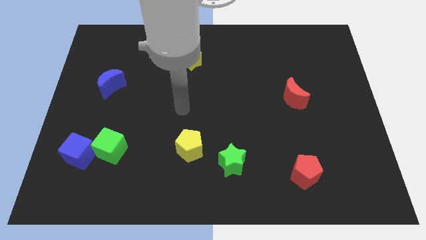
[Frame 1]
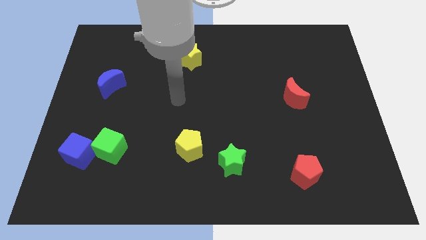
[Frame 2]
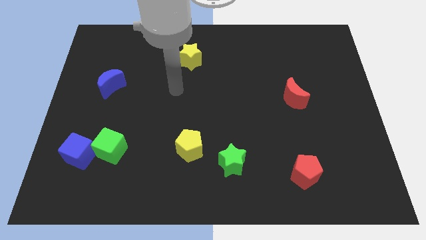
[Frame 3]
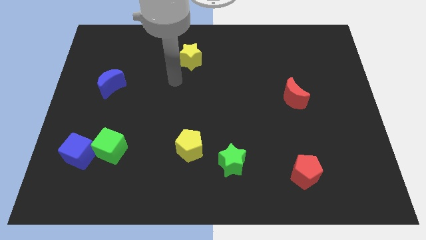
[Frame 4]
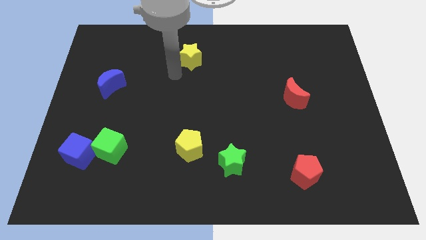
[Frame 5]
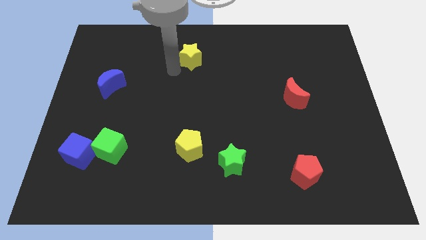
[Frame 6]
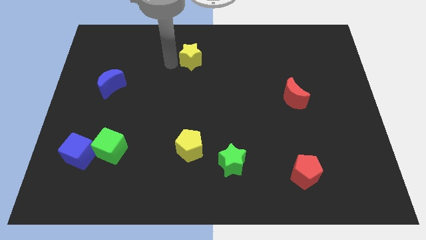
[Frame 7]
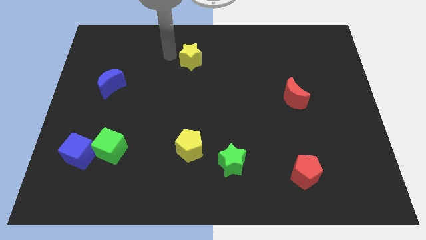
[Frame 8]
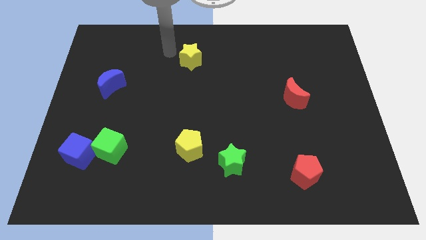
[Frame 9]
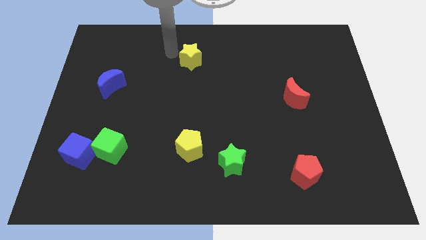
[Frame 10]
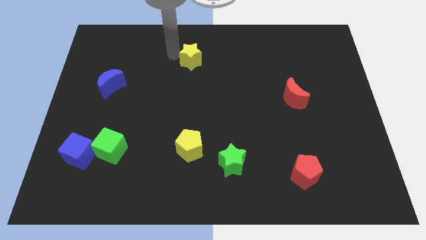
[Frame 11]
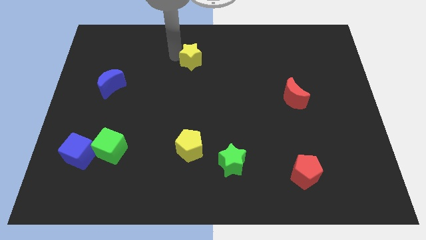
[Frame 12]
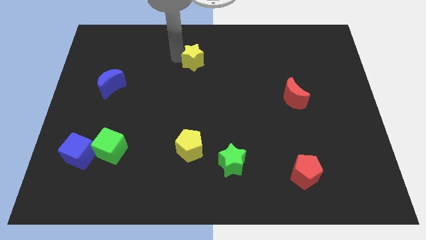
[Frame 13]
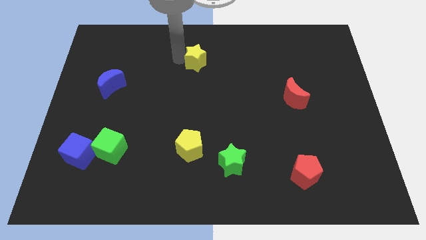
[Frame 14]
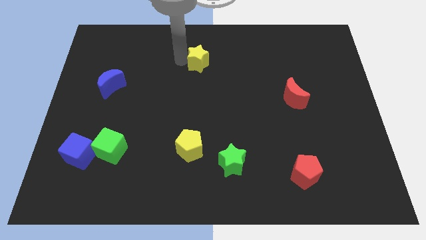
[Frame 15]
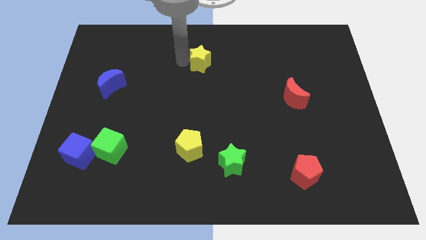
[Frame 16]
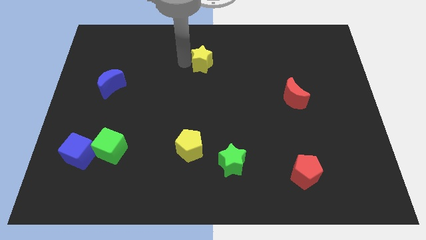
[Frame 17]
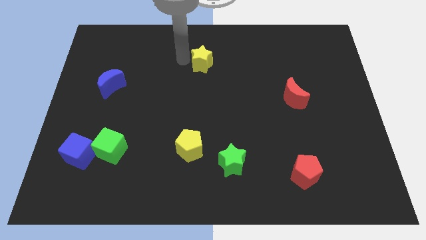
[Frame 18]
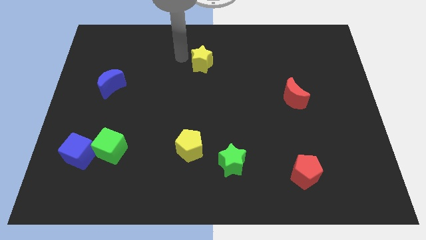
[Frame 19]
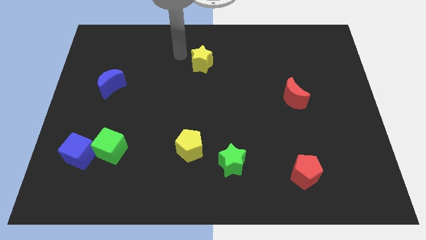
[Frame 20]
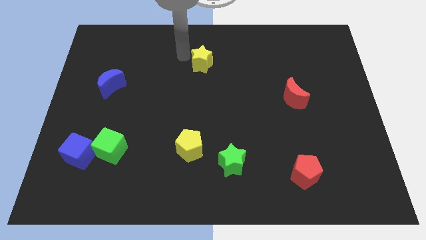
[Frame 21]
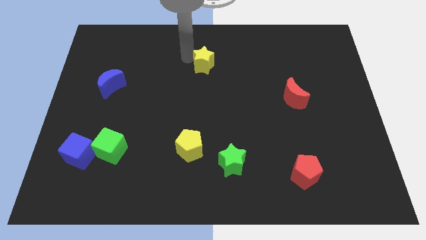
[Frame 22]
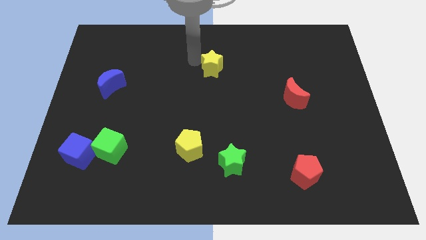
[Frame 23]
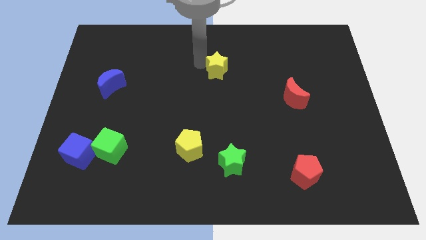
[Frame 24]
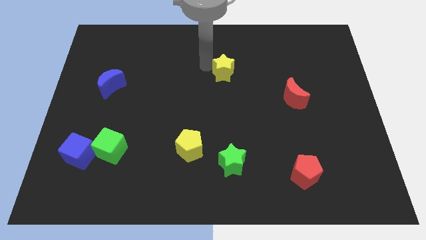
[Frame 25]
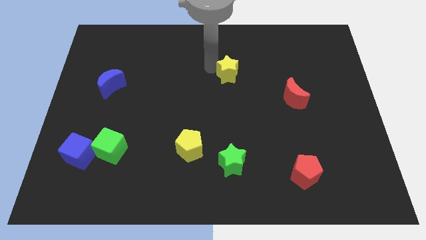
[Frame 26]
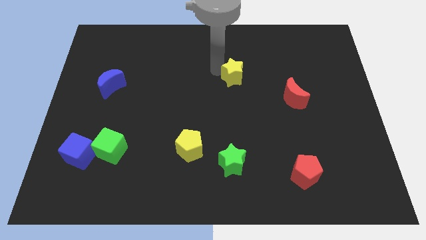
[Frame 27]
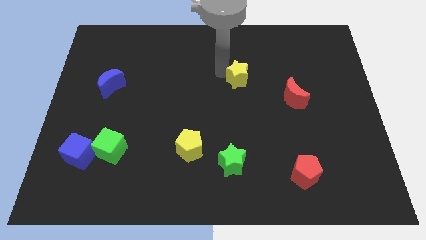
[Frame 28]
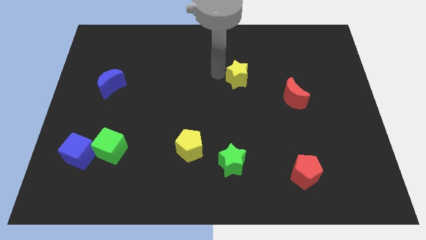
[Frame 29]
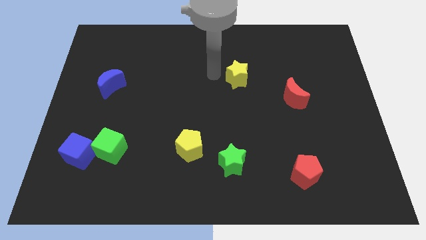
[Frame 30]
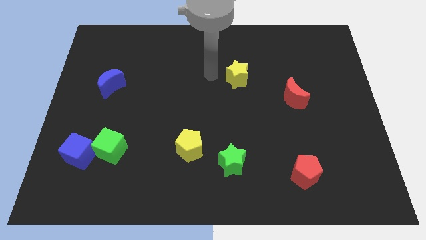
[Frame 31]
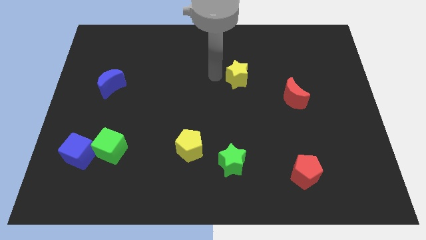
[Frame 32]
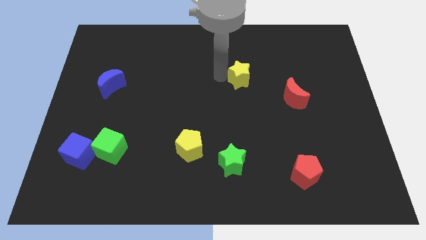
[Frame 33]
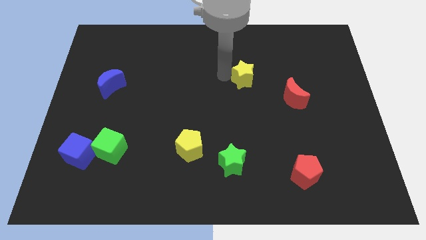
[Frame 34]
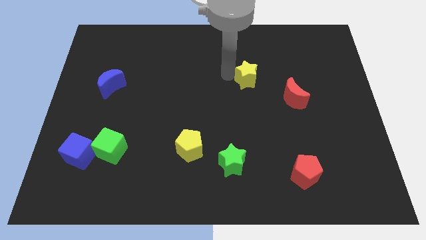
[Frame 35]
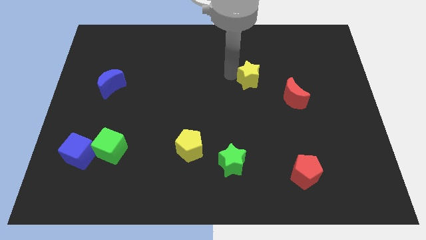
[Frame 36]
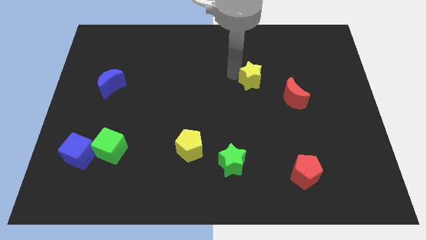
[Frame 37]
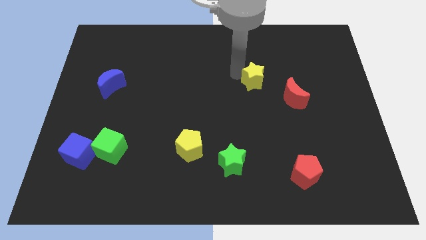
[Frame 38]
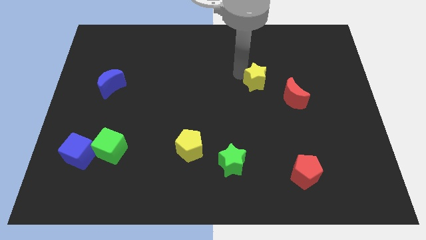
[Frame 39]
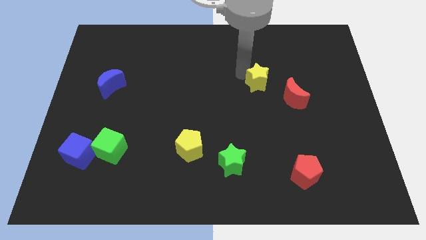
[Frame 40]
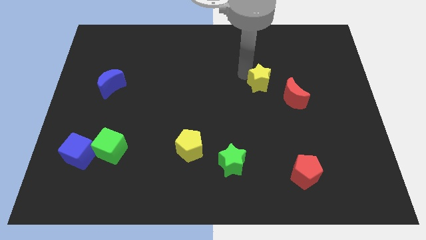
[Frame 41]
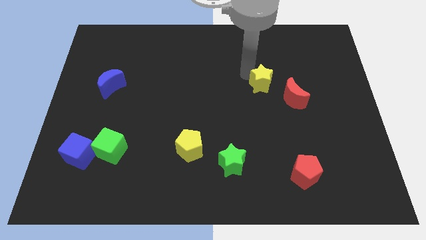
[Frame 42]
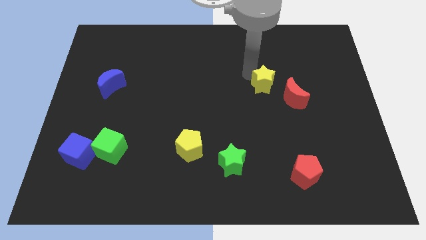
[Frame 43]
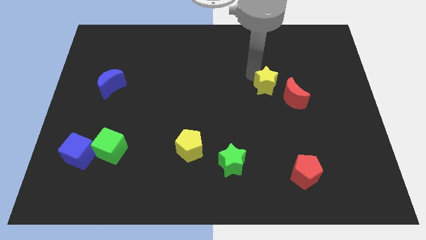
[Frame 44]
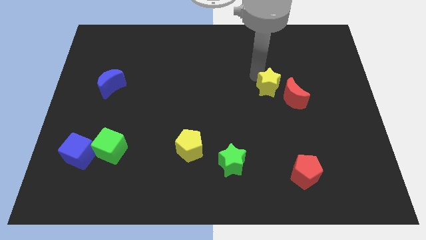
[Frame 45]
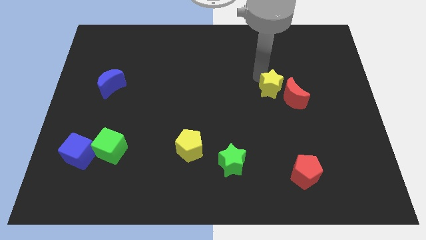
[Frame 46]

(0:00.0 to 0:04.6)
move the yellow star close to the red moon

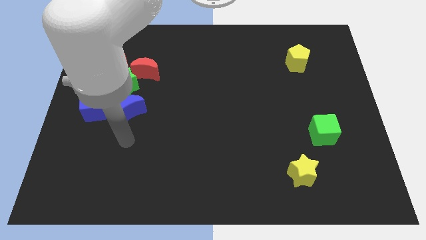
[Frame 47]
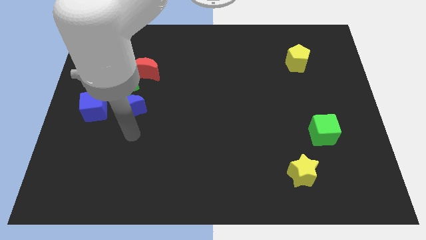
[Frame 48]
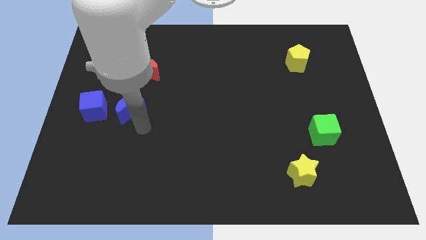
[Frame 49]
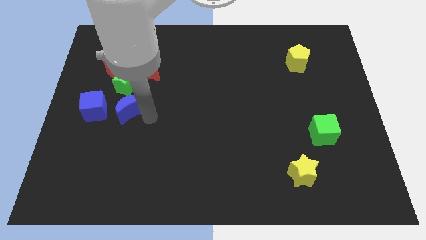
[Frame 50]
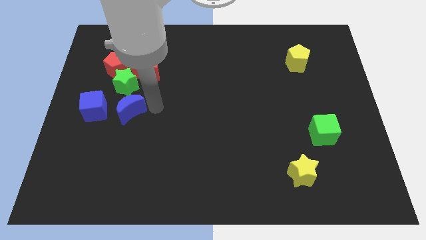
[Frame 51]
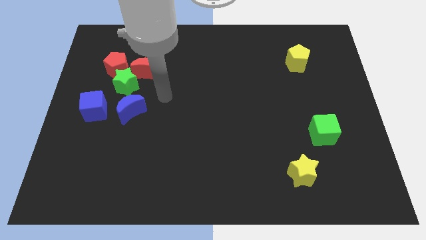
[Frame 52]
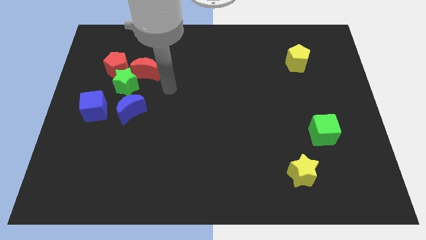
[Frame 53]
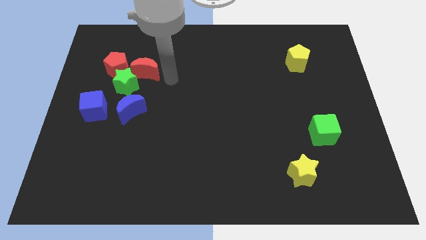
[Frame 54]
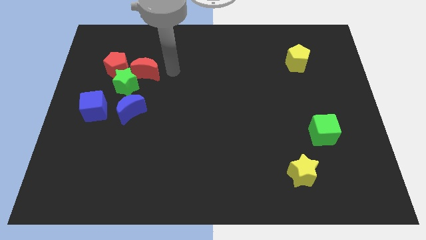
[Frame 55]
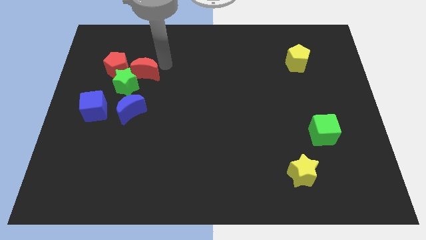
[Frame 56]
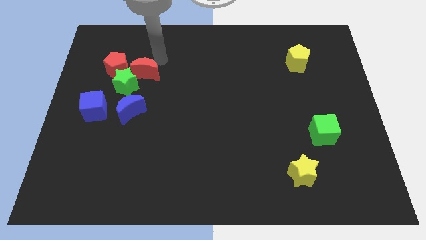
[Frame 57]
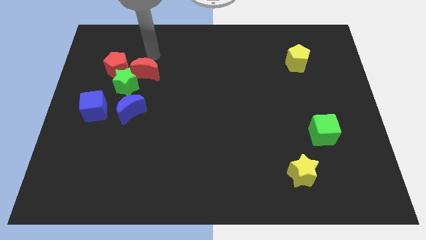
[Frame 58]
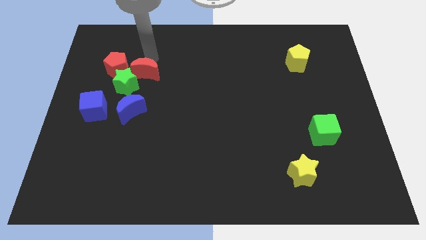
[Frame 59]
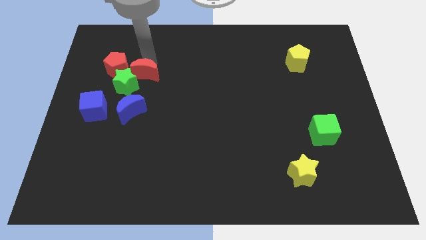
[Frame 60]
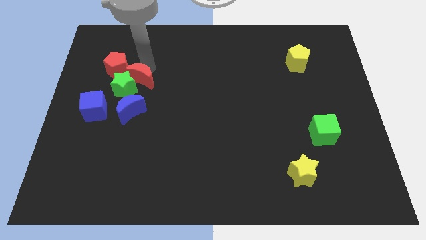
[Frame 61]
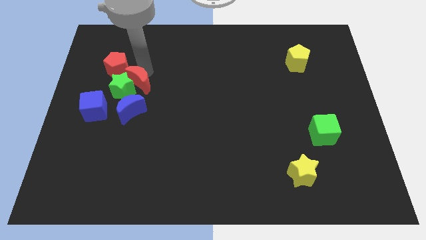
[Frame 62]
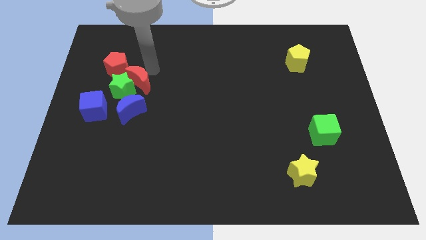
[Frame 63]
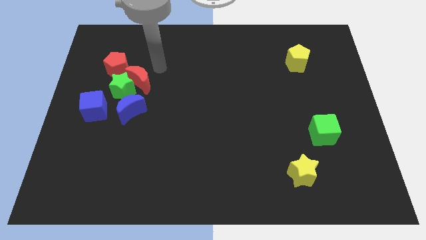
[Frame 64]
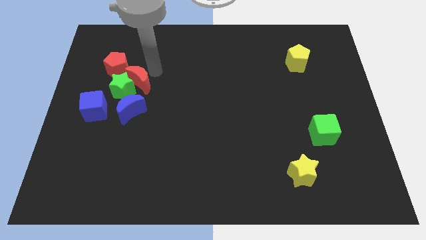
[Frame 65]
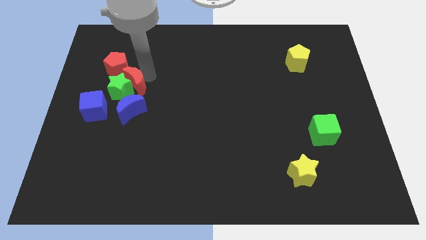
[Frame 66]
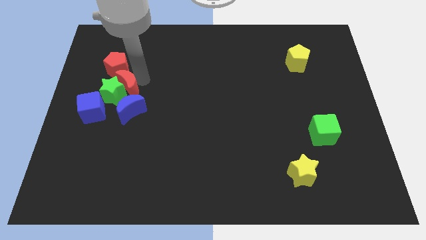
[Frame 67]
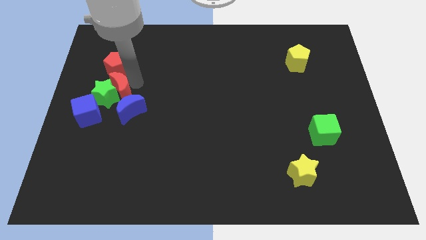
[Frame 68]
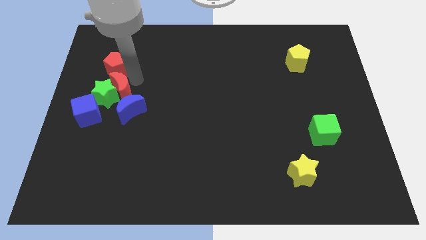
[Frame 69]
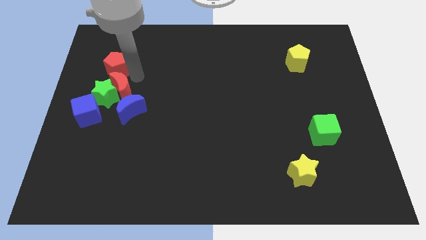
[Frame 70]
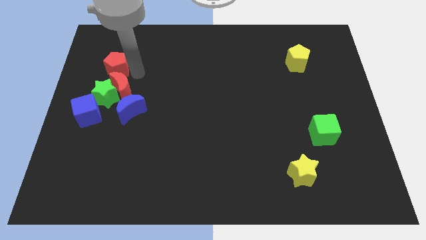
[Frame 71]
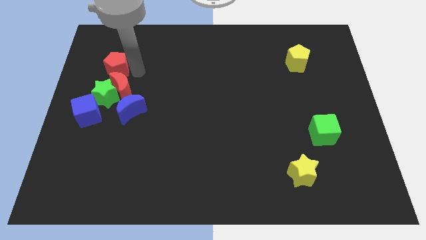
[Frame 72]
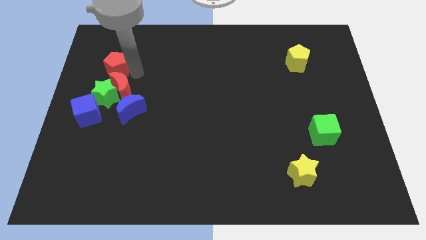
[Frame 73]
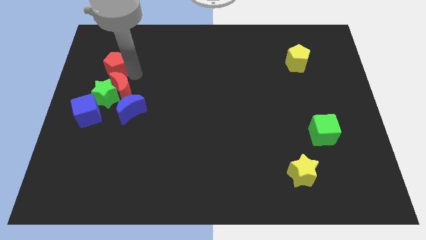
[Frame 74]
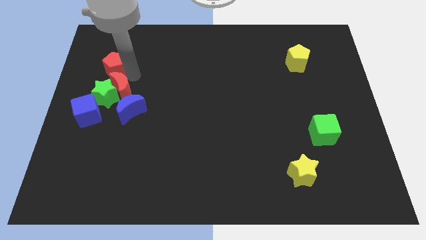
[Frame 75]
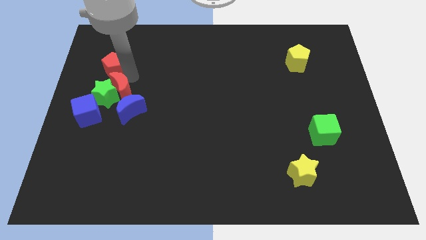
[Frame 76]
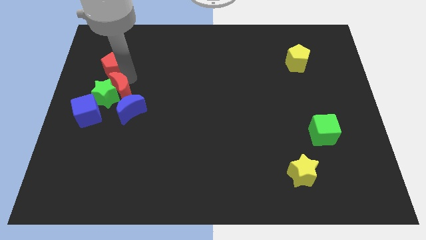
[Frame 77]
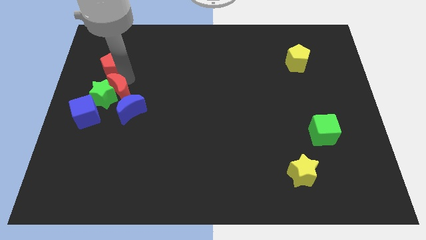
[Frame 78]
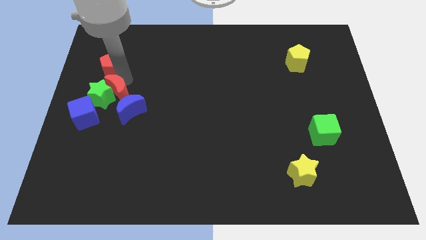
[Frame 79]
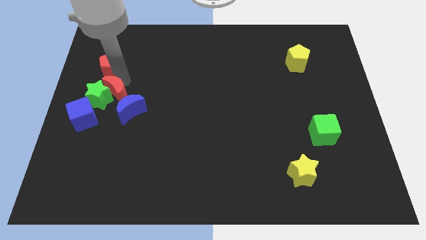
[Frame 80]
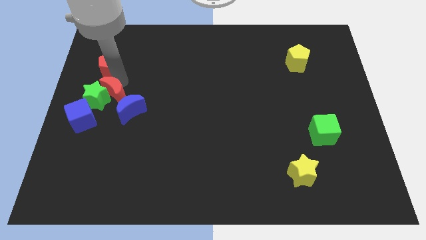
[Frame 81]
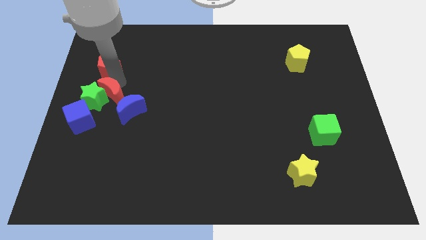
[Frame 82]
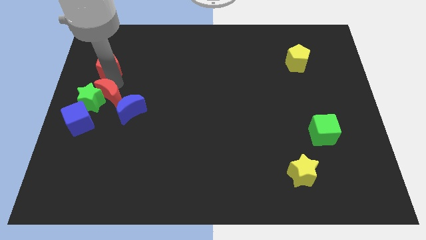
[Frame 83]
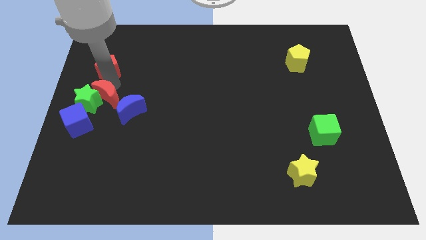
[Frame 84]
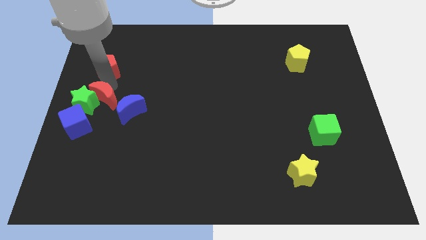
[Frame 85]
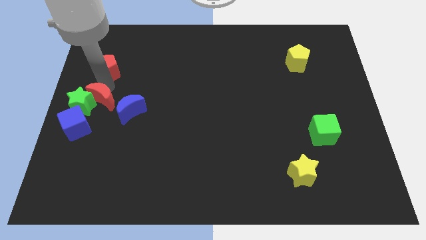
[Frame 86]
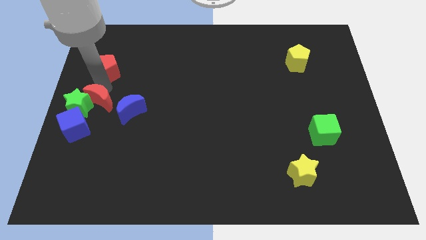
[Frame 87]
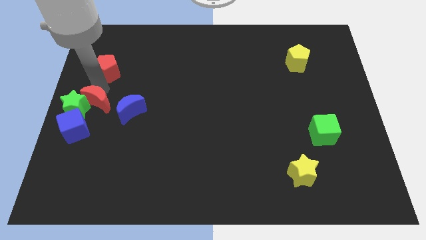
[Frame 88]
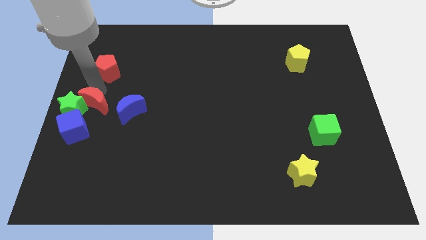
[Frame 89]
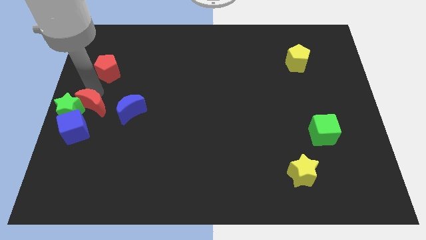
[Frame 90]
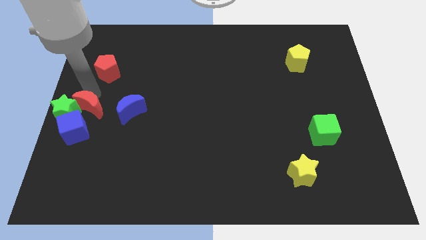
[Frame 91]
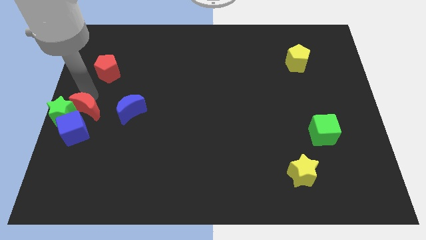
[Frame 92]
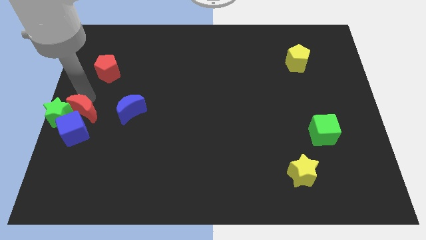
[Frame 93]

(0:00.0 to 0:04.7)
slide the red moon towards the blue cube
